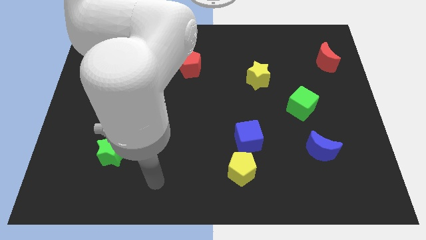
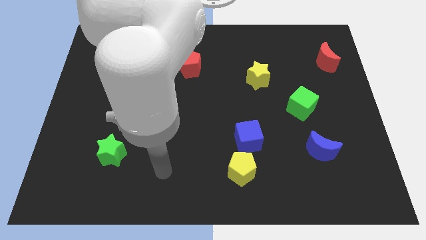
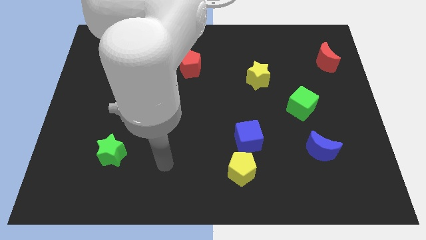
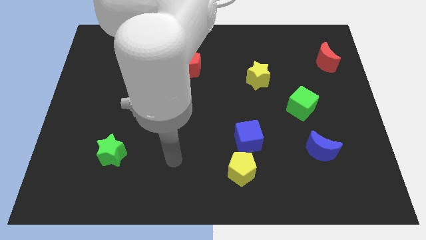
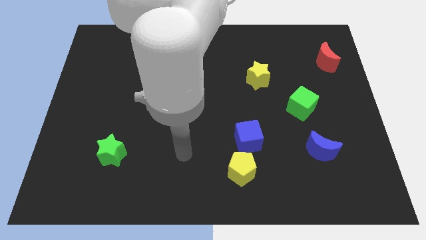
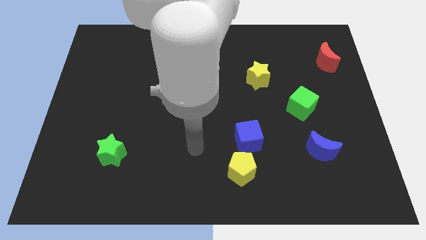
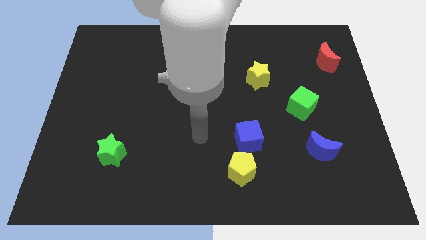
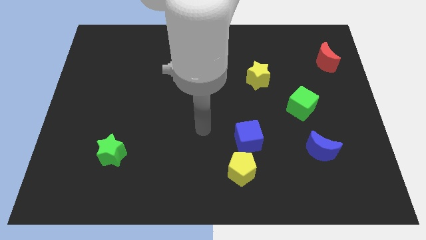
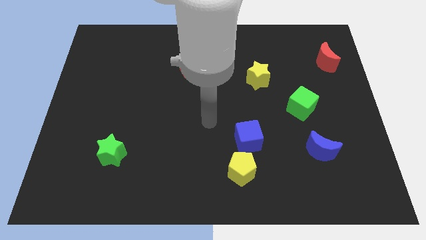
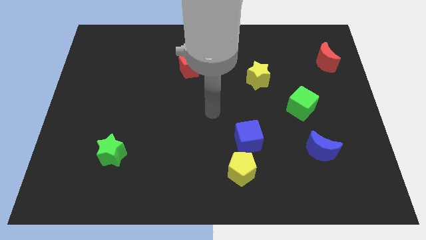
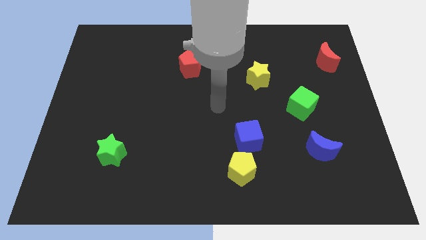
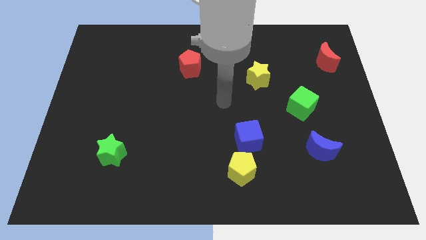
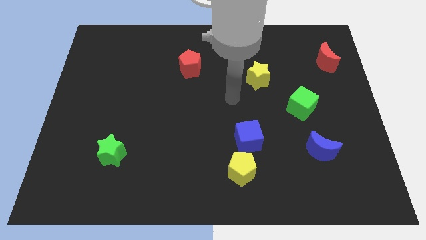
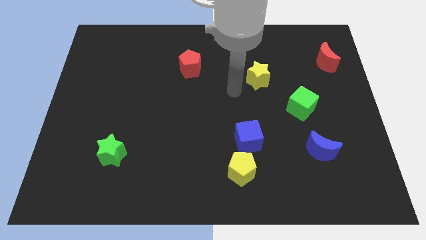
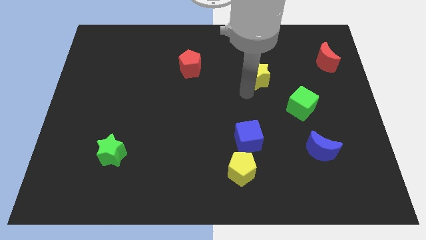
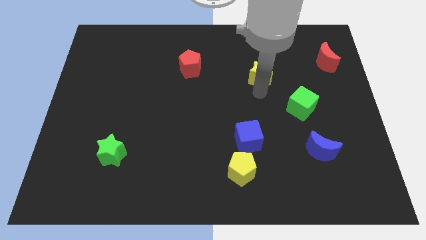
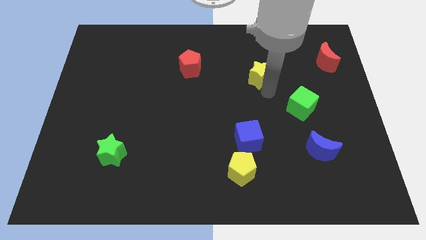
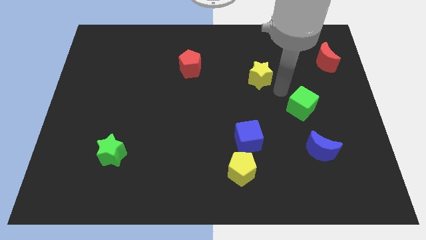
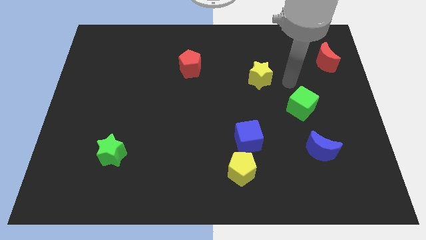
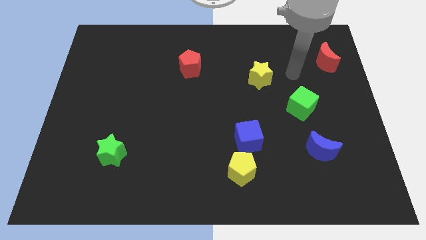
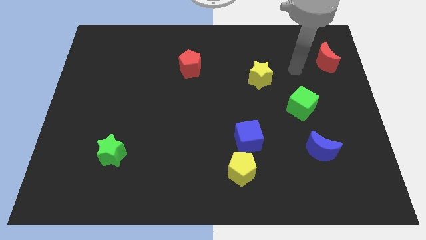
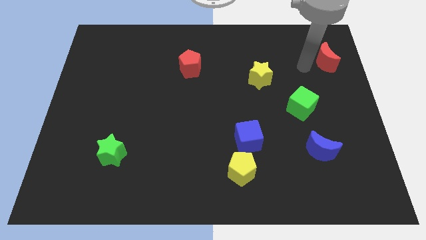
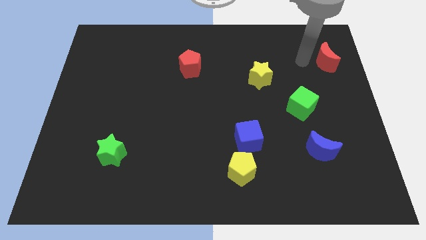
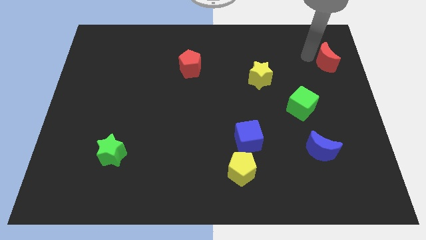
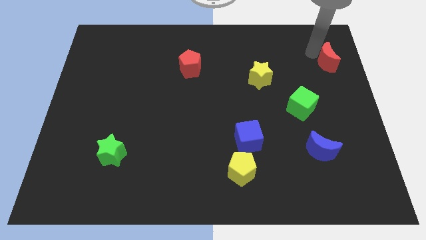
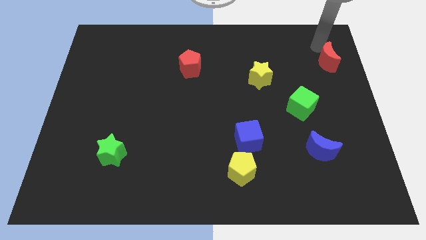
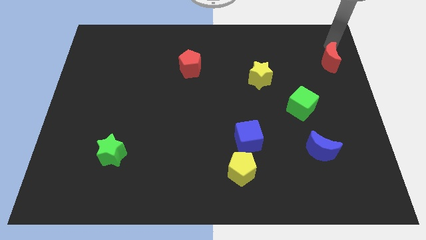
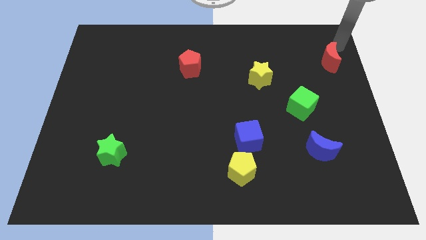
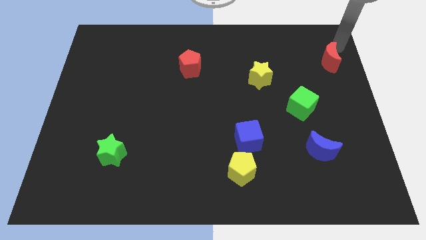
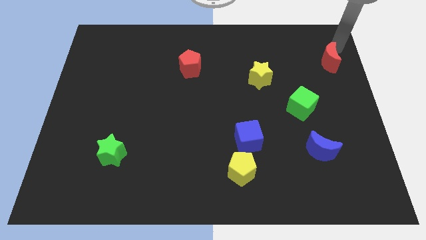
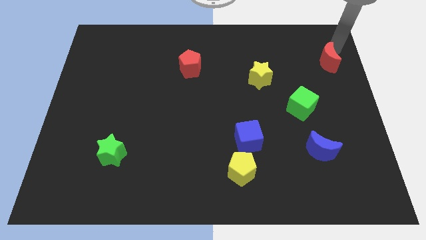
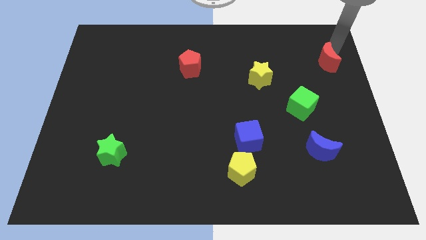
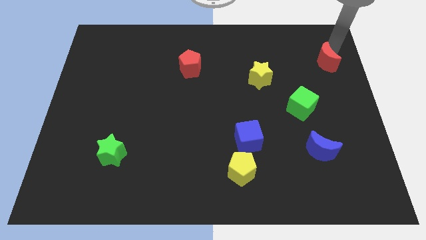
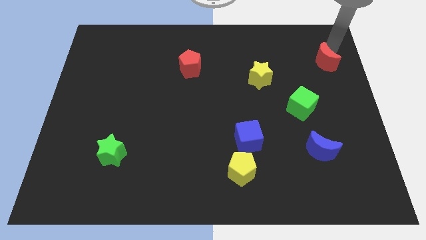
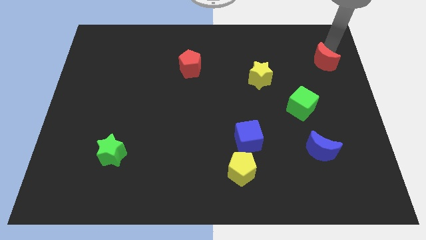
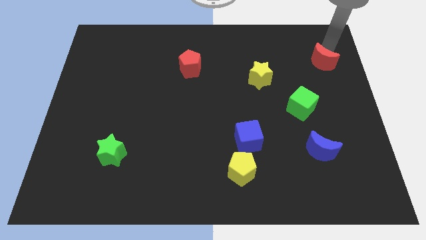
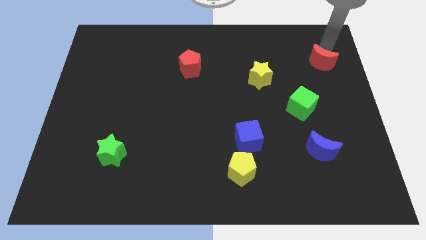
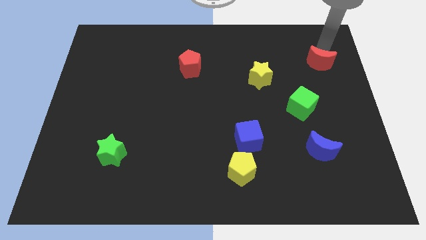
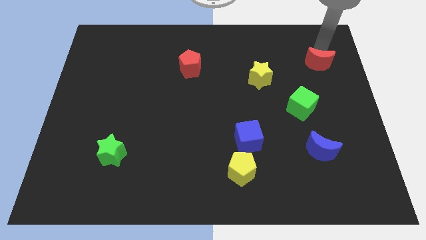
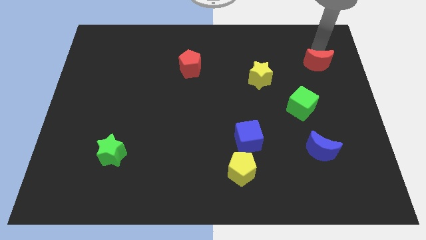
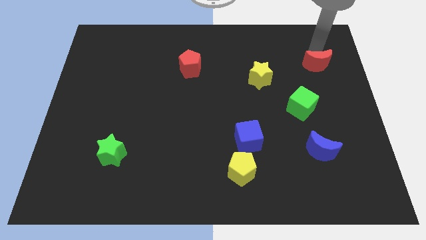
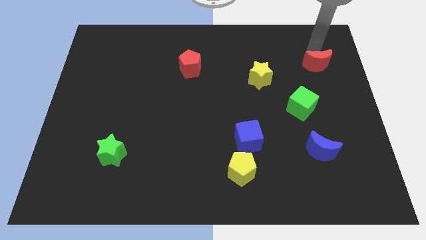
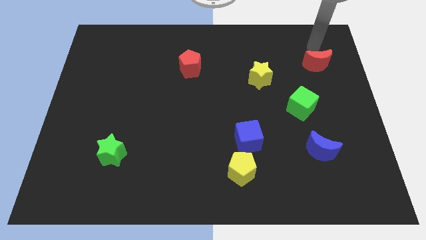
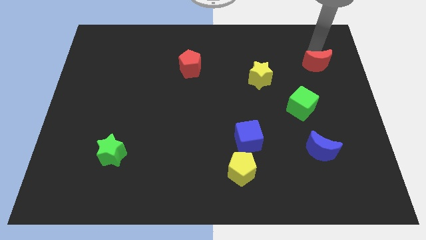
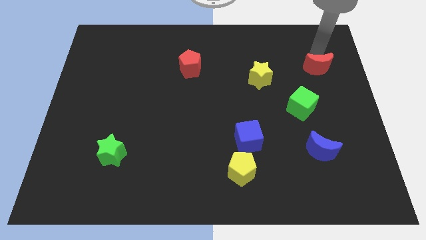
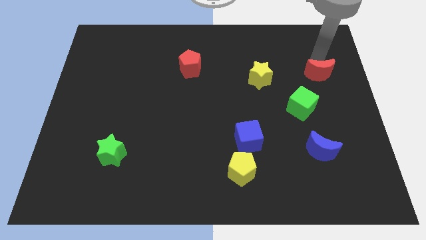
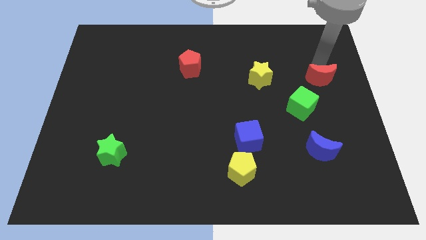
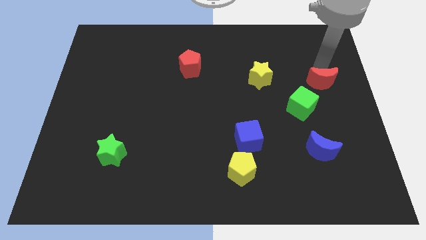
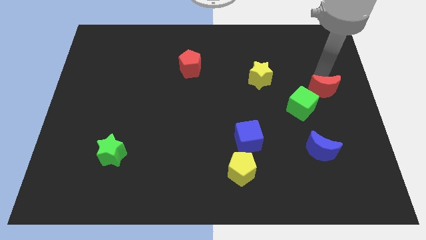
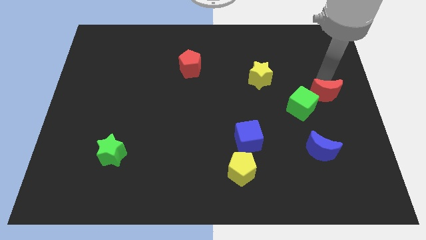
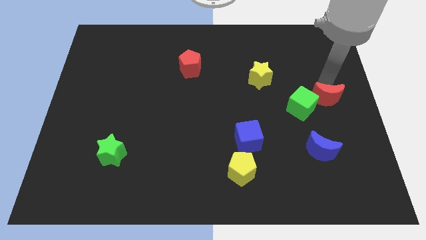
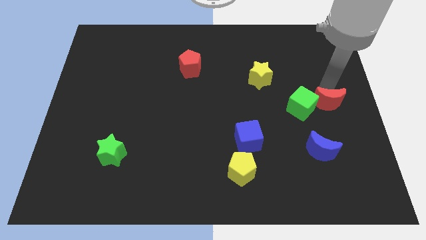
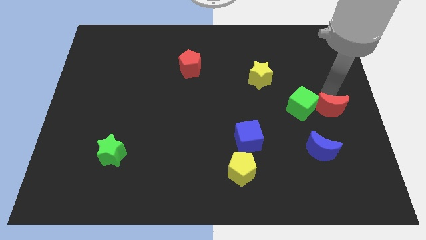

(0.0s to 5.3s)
put the red moon diagonally down and to the right of the green cube

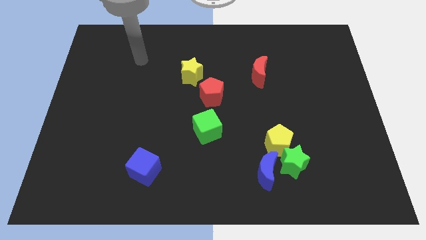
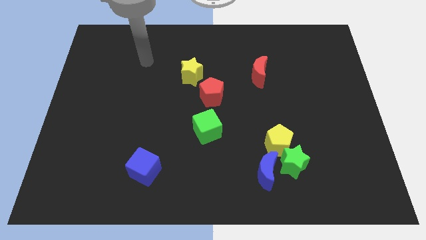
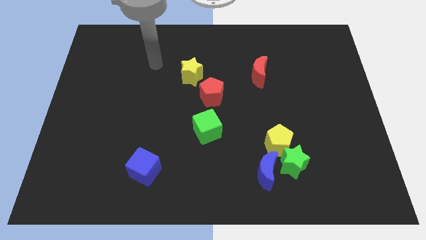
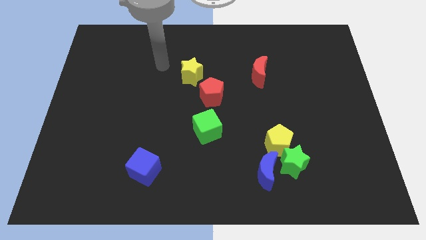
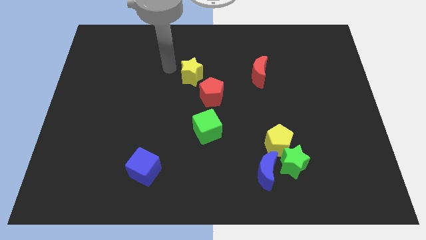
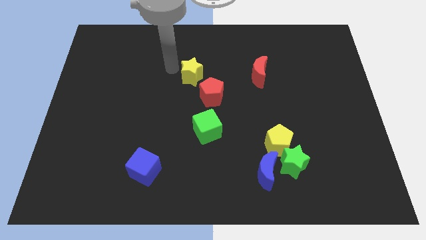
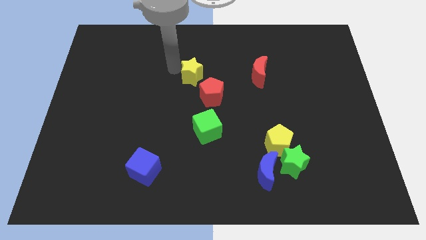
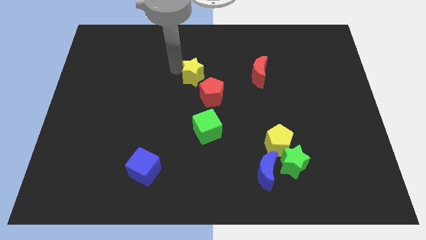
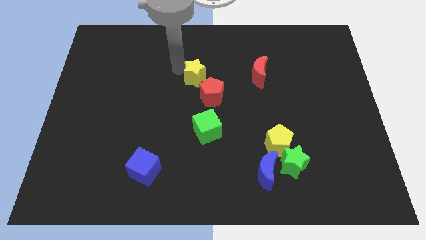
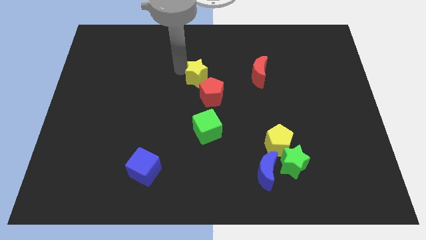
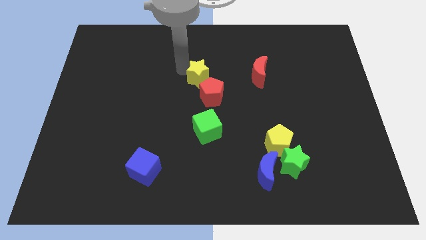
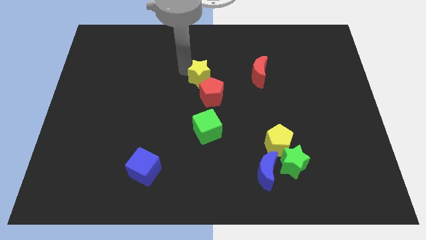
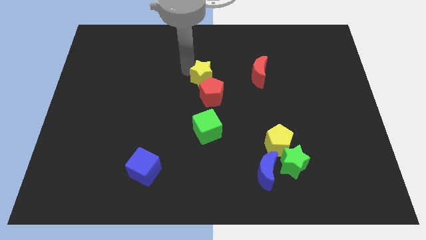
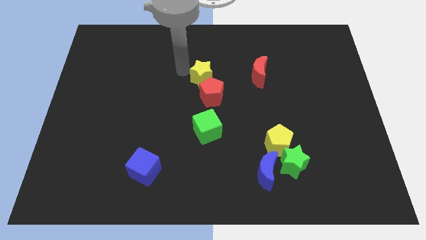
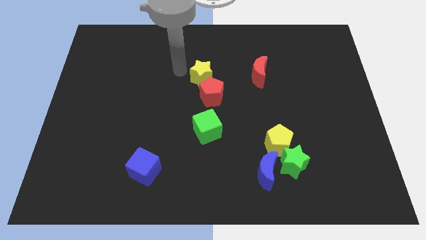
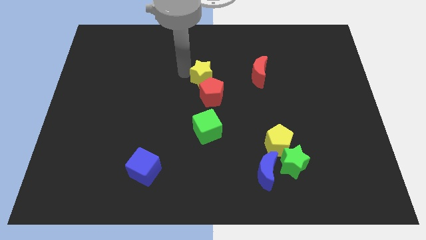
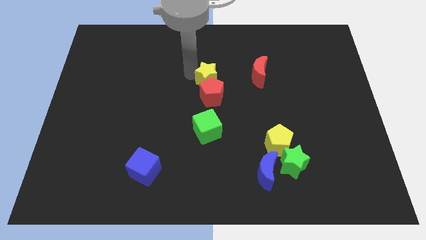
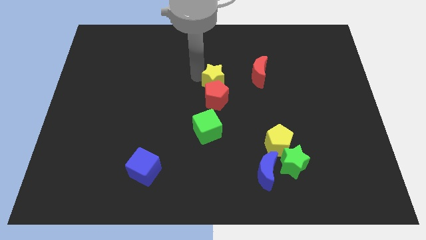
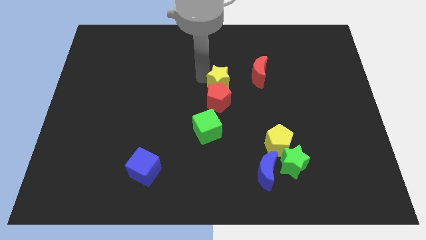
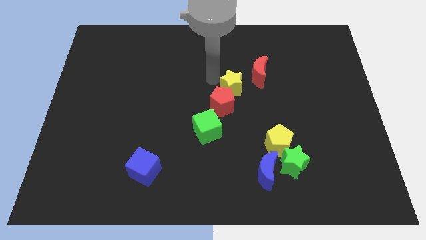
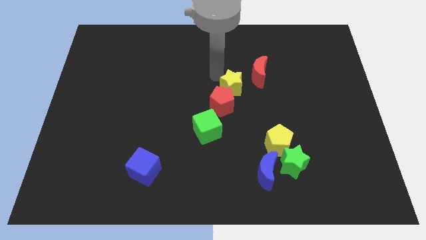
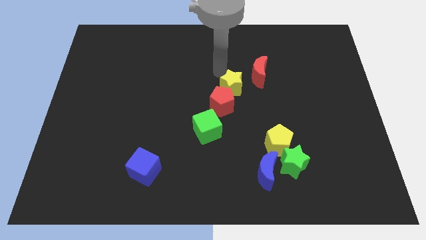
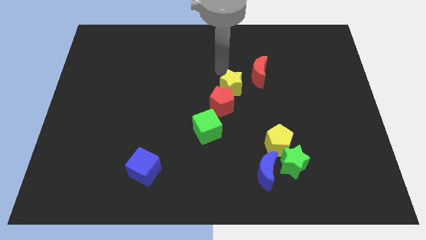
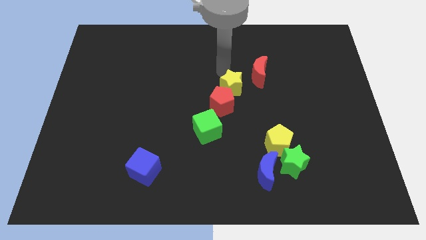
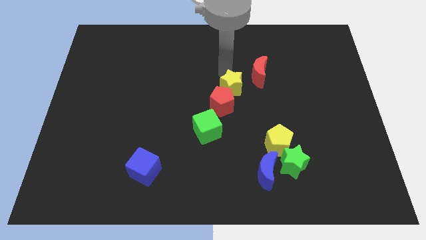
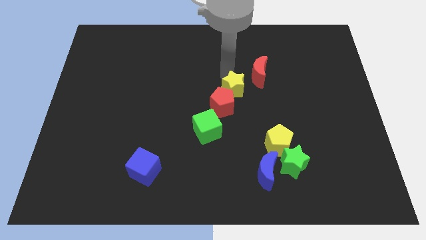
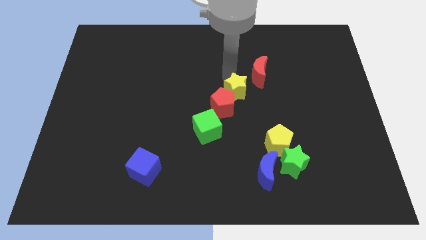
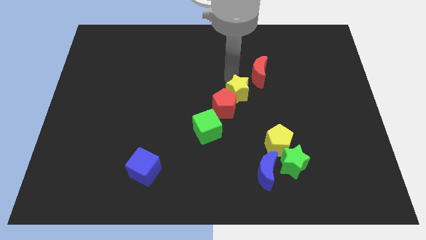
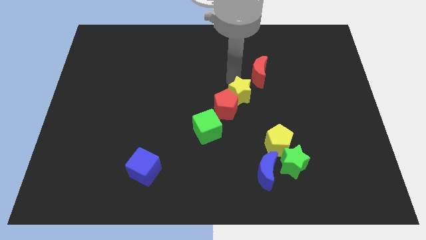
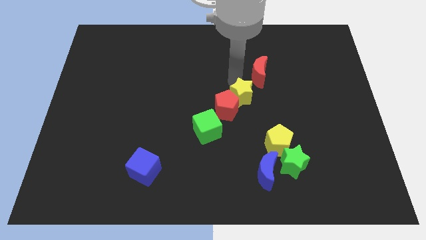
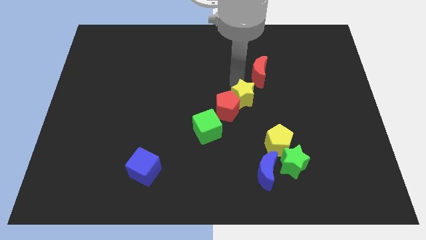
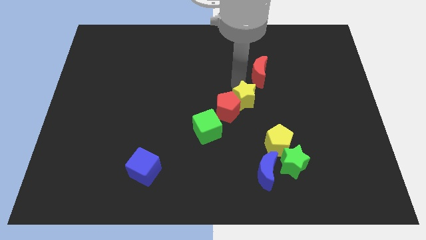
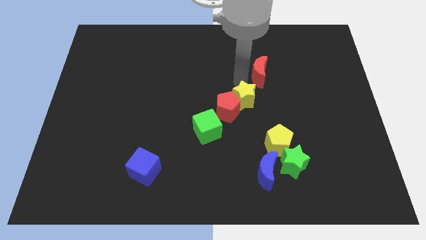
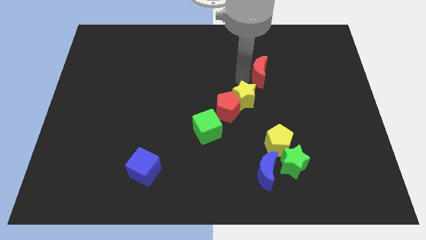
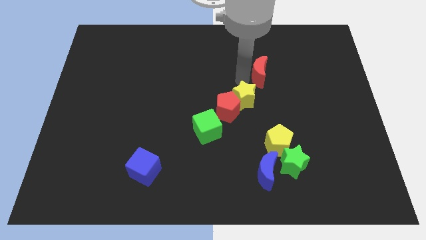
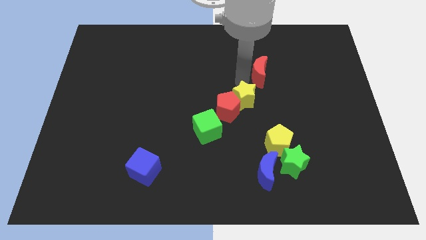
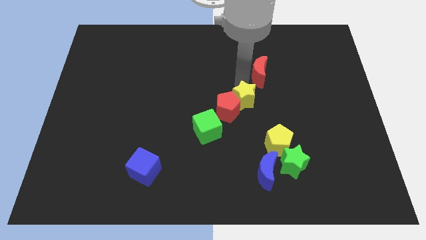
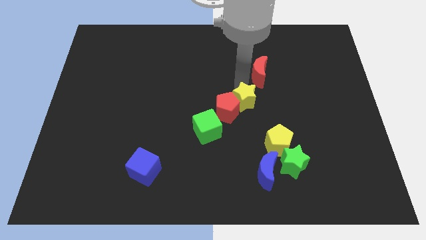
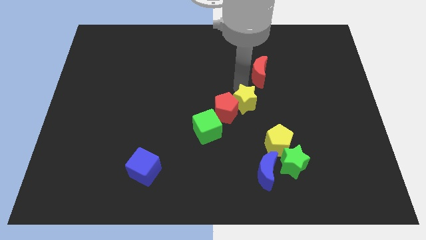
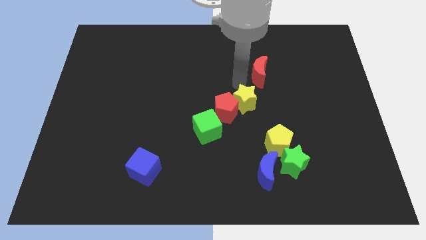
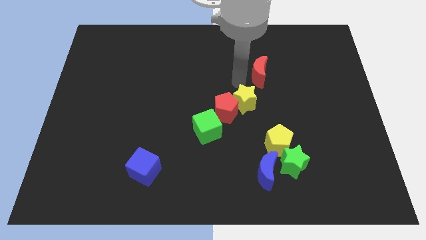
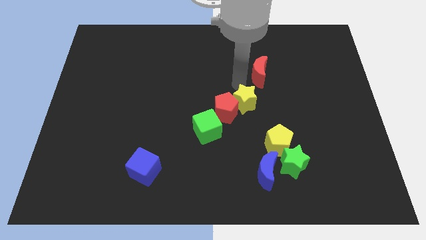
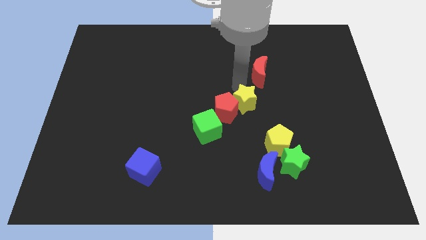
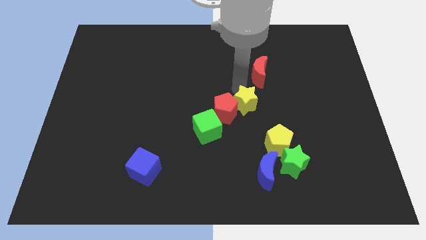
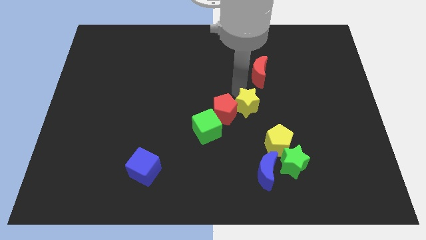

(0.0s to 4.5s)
slide the yellow star to the top left of the yellow pentagon
